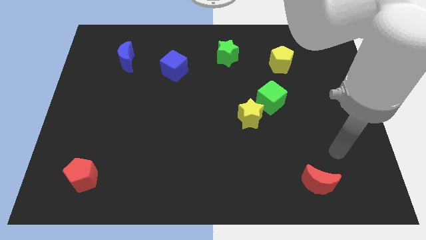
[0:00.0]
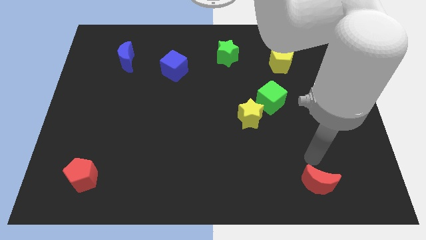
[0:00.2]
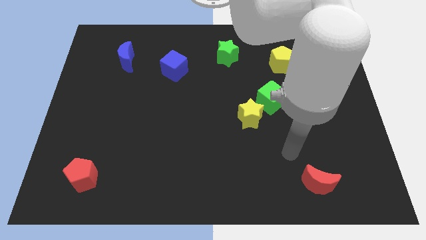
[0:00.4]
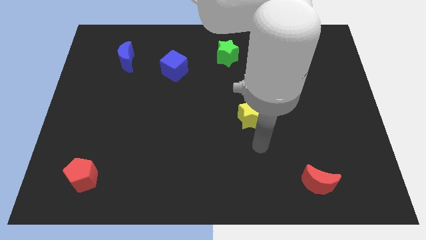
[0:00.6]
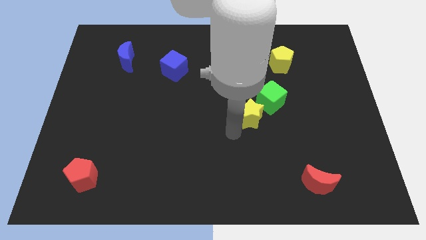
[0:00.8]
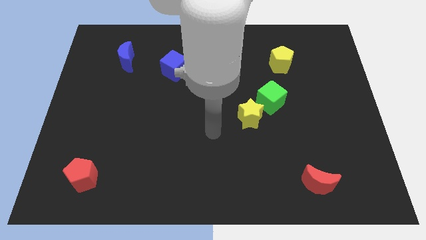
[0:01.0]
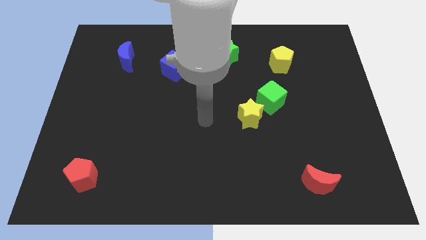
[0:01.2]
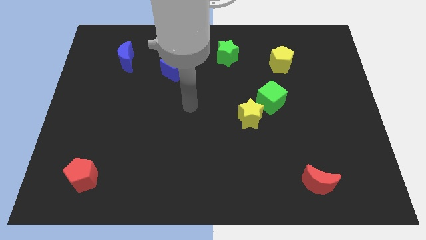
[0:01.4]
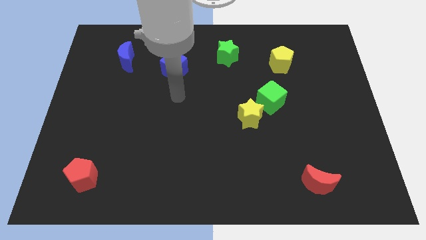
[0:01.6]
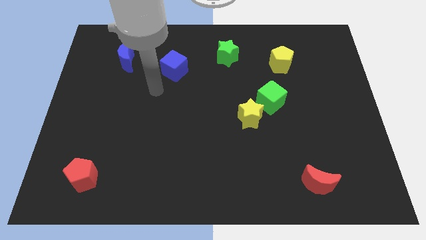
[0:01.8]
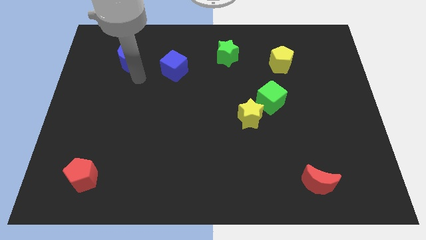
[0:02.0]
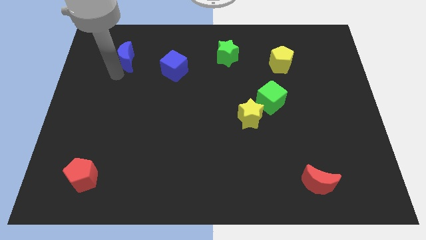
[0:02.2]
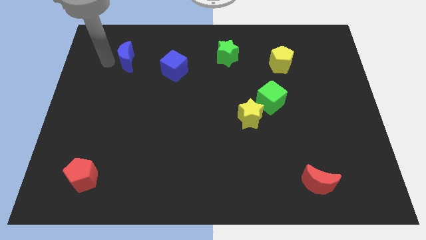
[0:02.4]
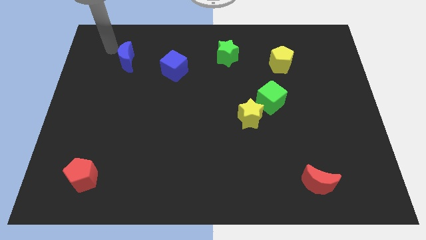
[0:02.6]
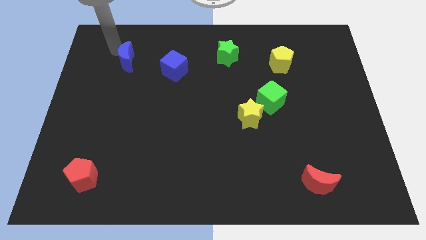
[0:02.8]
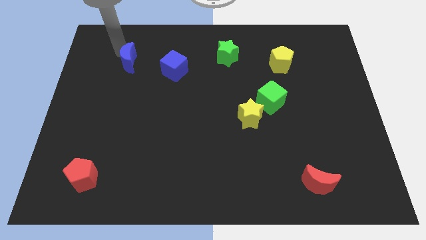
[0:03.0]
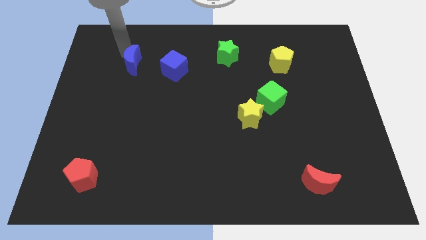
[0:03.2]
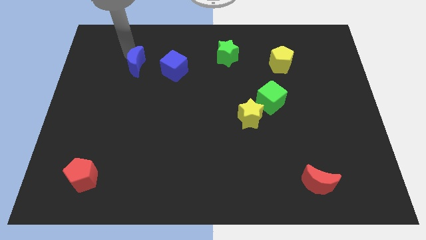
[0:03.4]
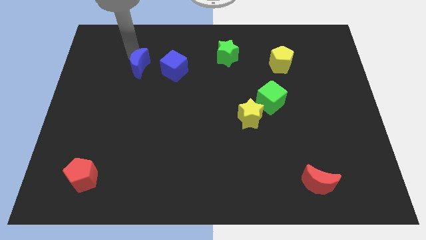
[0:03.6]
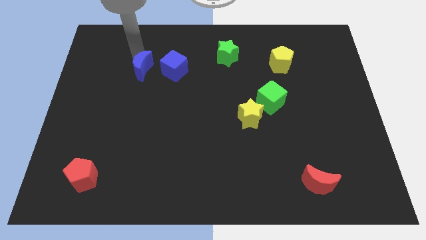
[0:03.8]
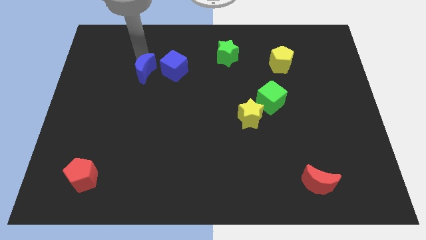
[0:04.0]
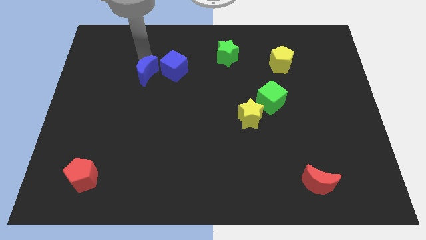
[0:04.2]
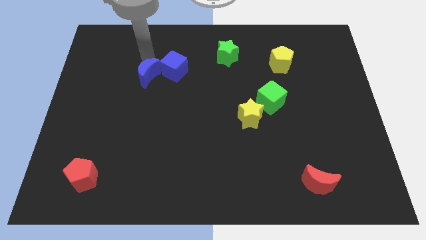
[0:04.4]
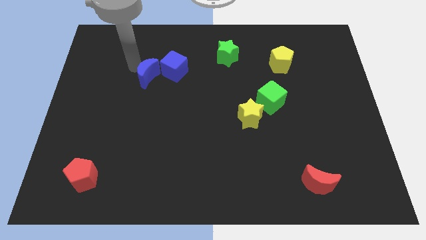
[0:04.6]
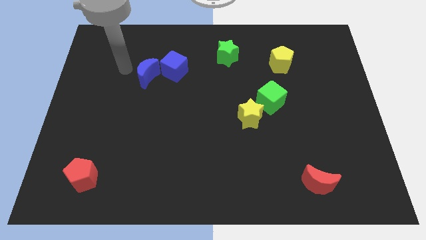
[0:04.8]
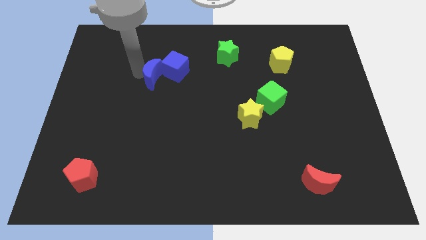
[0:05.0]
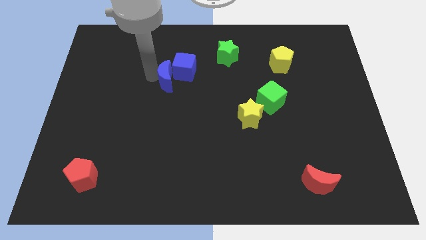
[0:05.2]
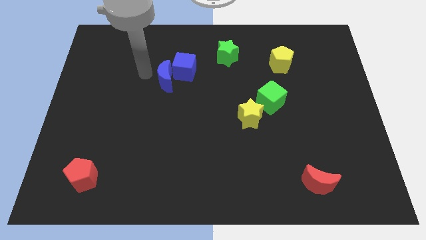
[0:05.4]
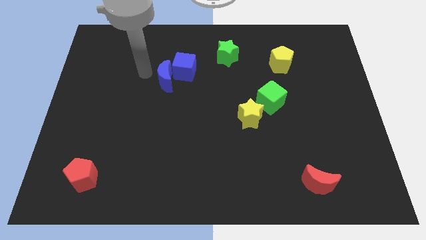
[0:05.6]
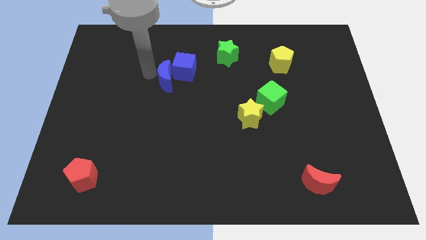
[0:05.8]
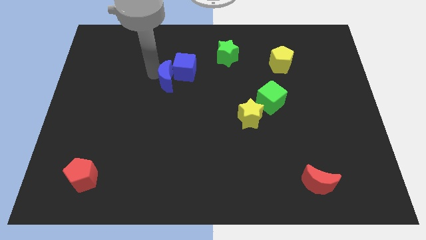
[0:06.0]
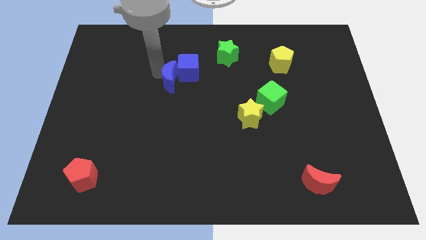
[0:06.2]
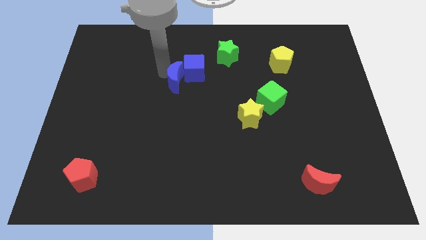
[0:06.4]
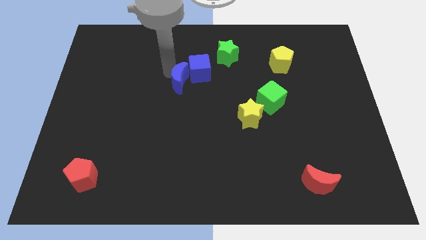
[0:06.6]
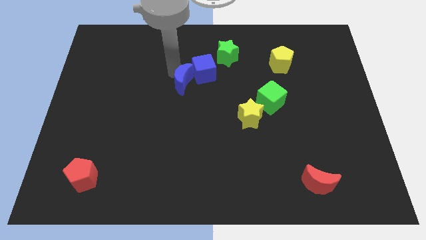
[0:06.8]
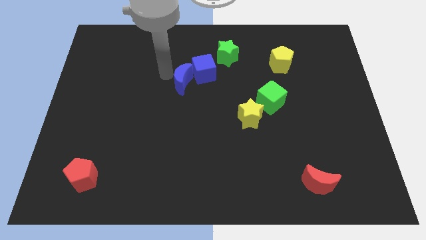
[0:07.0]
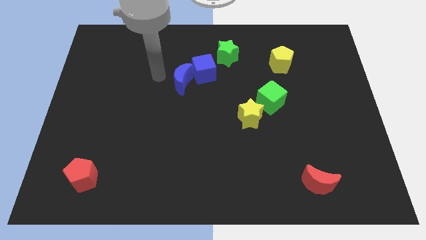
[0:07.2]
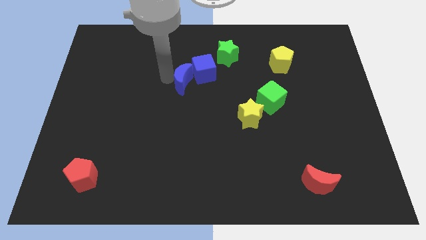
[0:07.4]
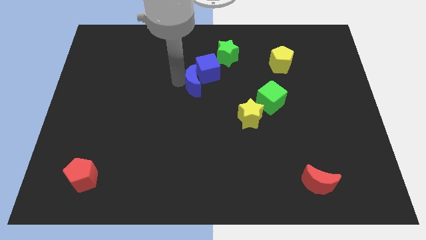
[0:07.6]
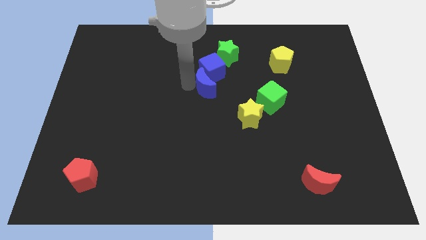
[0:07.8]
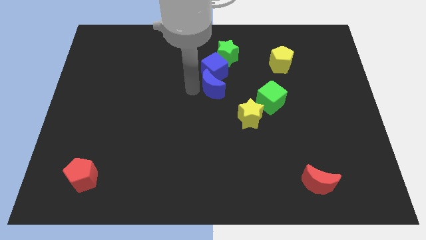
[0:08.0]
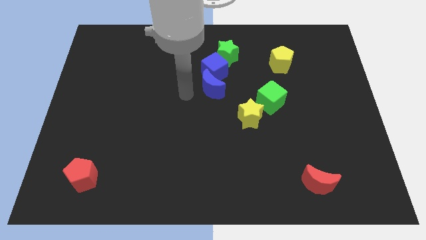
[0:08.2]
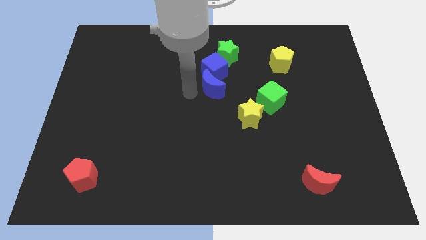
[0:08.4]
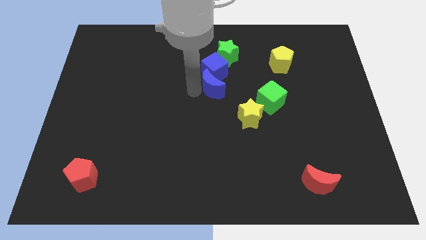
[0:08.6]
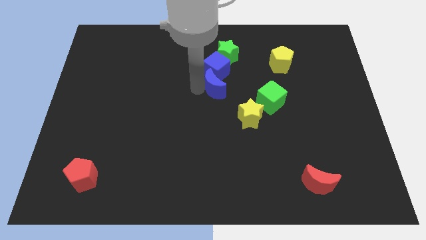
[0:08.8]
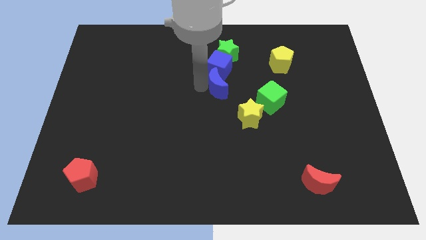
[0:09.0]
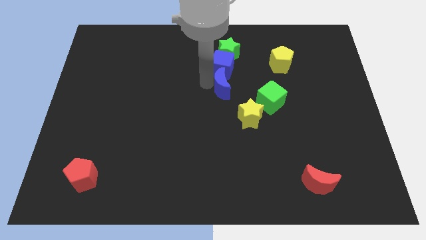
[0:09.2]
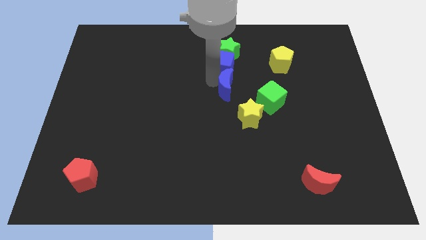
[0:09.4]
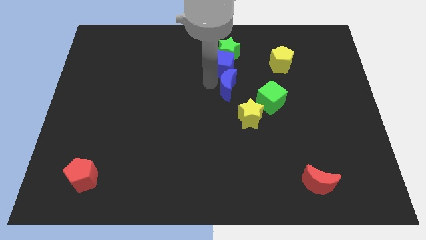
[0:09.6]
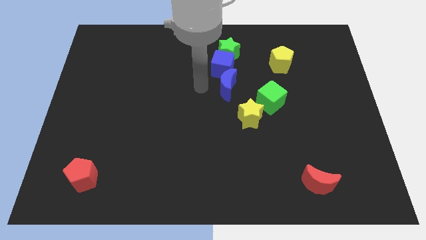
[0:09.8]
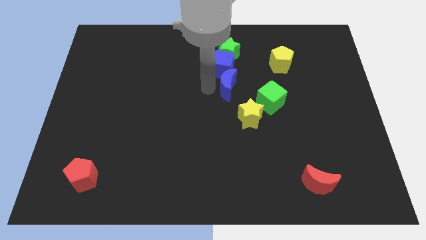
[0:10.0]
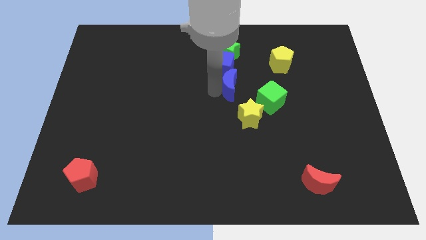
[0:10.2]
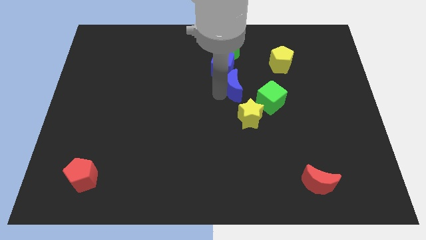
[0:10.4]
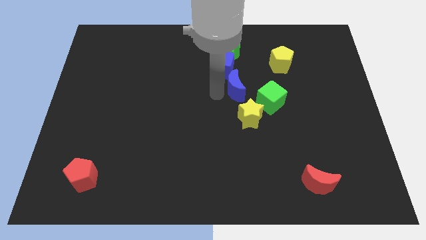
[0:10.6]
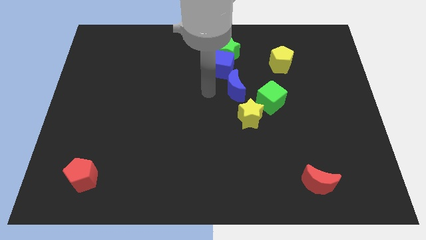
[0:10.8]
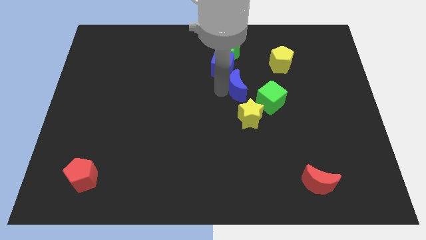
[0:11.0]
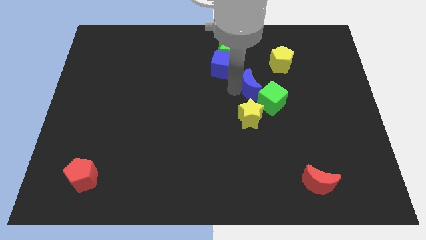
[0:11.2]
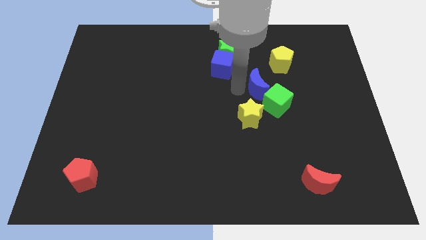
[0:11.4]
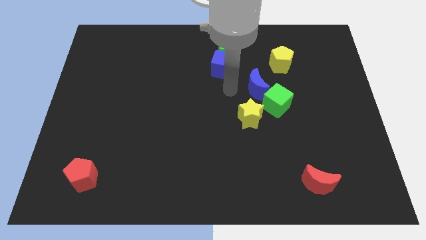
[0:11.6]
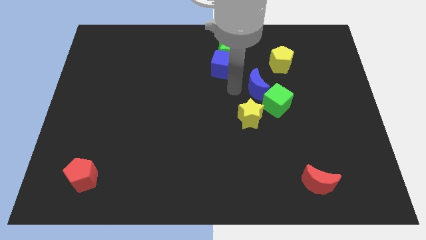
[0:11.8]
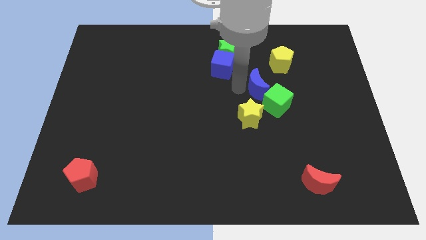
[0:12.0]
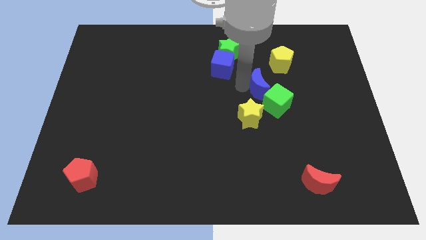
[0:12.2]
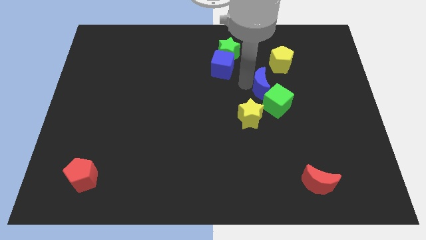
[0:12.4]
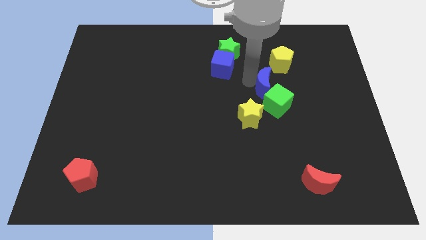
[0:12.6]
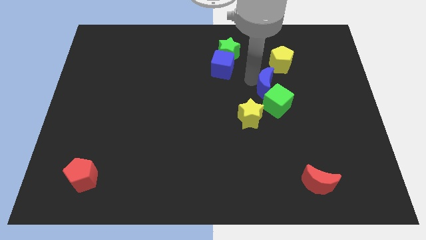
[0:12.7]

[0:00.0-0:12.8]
put the blue moon to the bottom side of the yellow pentagon
